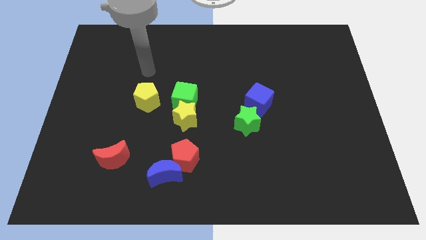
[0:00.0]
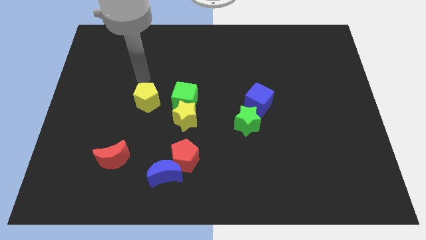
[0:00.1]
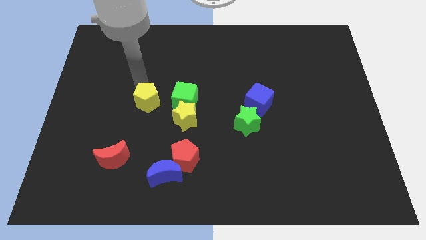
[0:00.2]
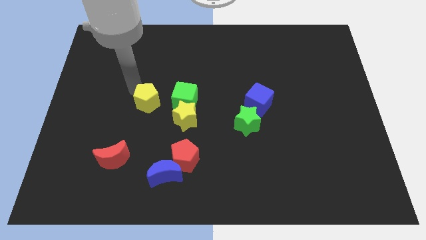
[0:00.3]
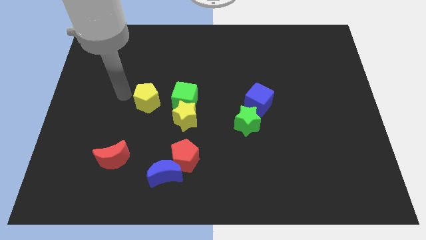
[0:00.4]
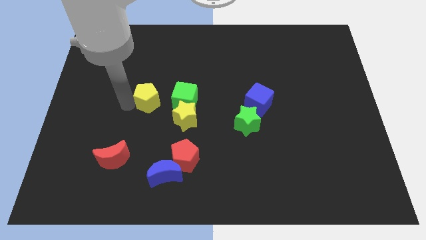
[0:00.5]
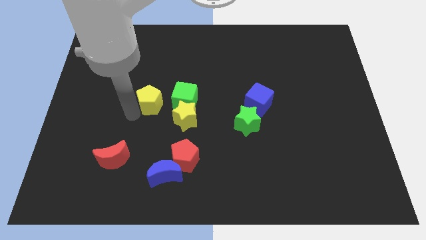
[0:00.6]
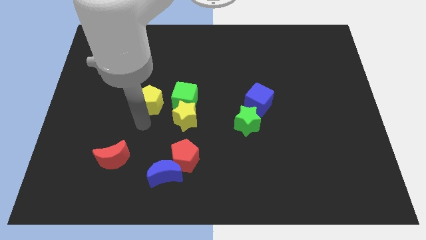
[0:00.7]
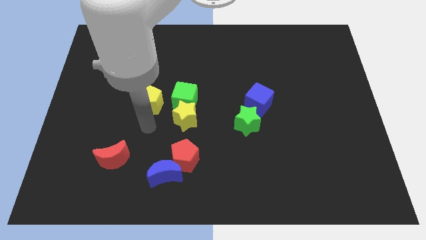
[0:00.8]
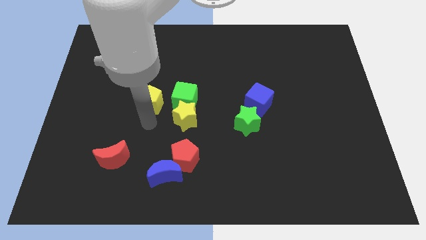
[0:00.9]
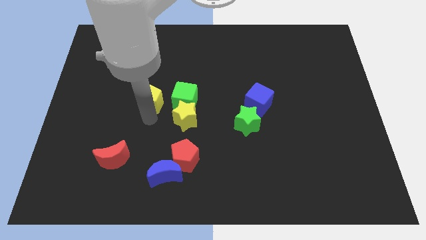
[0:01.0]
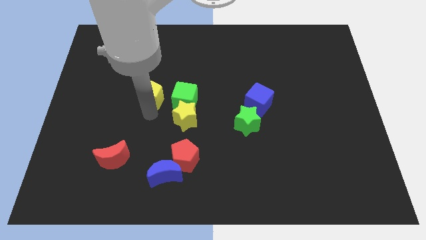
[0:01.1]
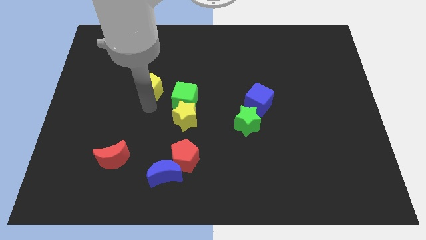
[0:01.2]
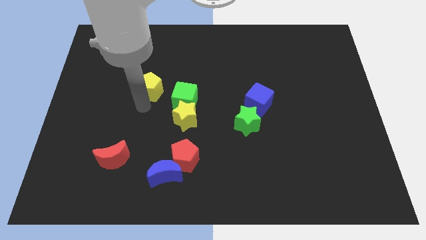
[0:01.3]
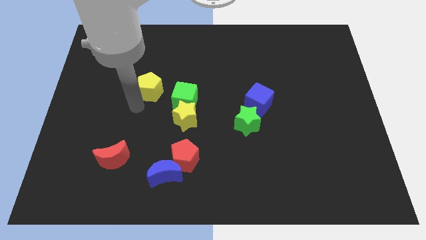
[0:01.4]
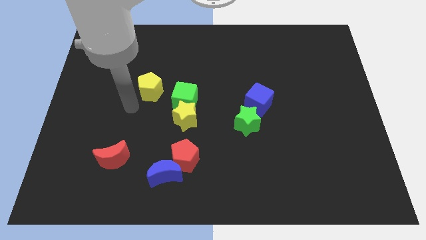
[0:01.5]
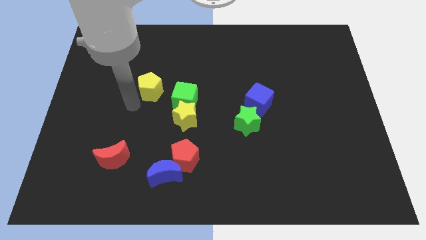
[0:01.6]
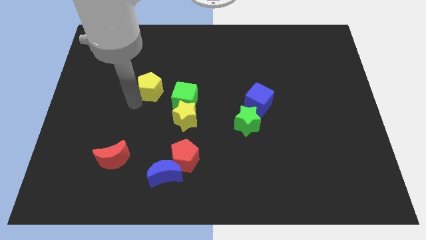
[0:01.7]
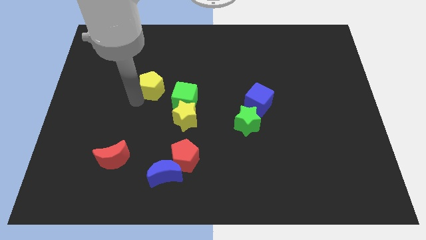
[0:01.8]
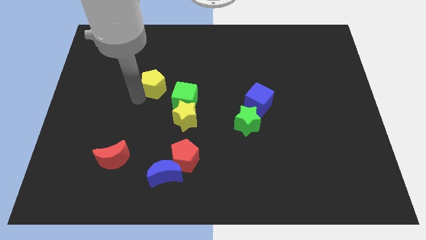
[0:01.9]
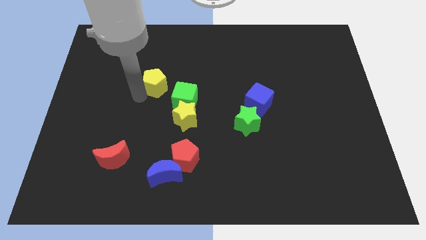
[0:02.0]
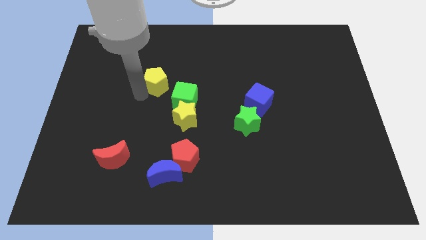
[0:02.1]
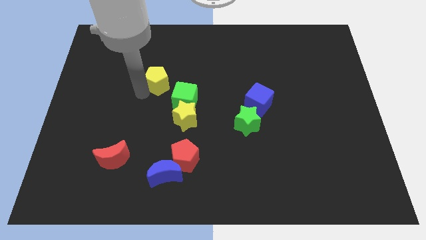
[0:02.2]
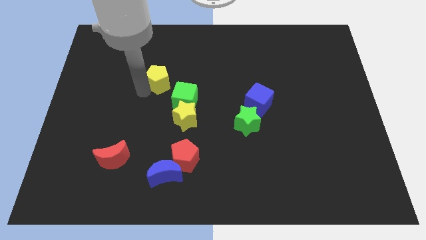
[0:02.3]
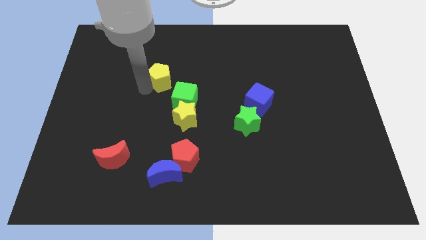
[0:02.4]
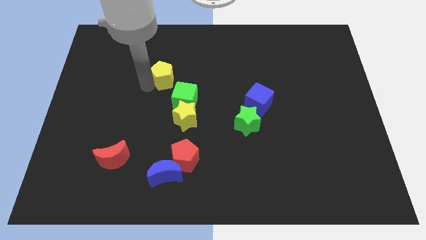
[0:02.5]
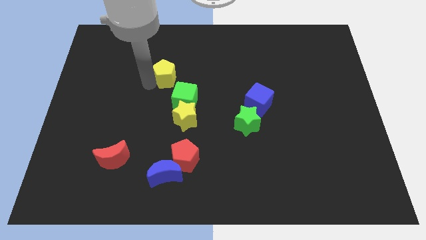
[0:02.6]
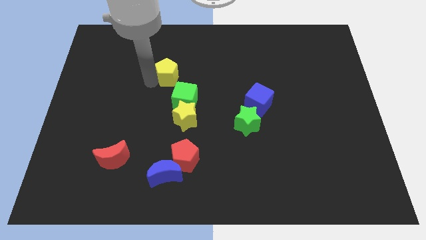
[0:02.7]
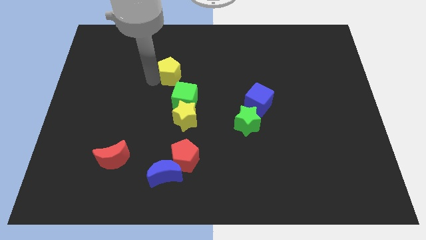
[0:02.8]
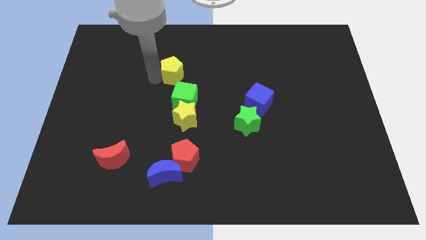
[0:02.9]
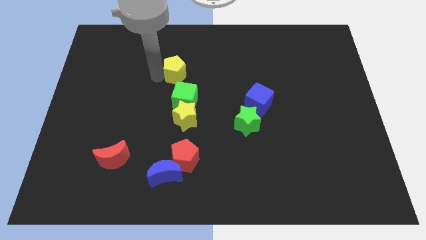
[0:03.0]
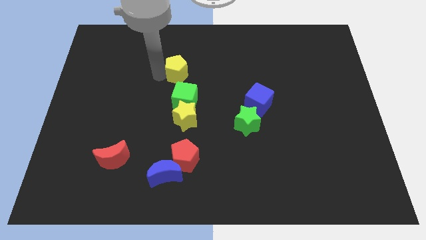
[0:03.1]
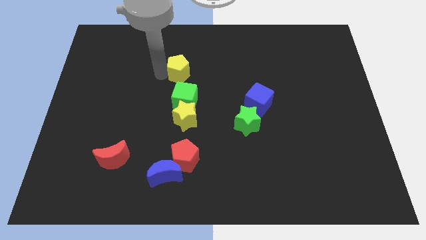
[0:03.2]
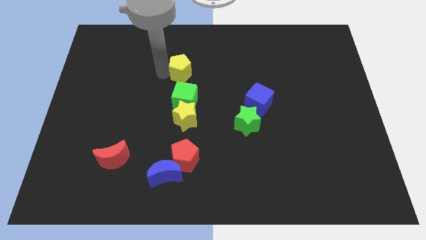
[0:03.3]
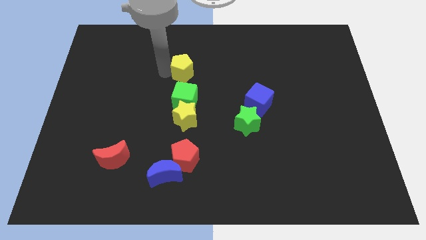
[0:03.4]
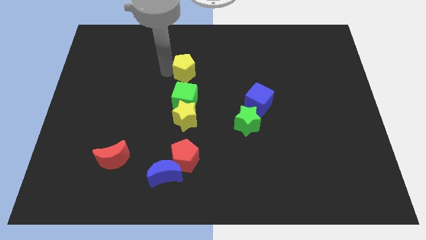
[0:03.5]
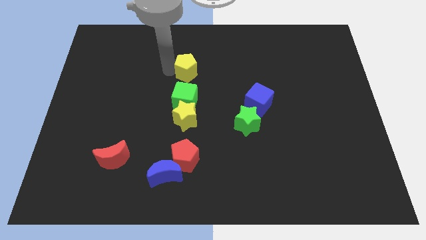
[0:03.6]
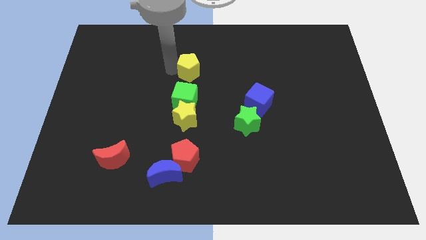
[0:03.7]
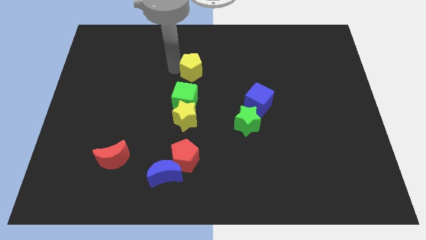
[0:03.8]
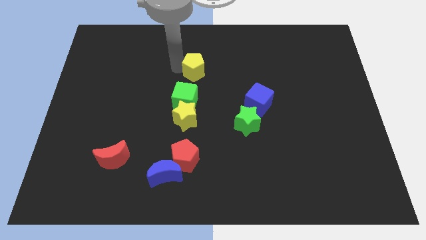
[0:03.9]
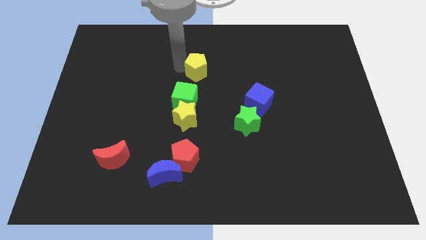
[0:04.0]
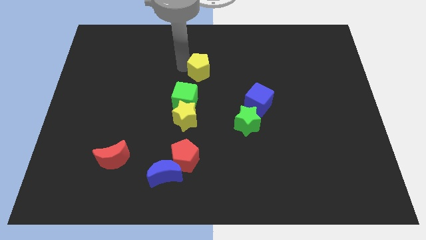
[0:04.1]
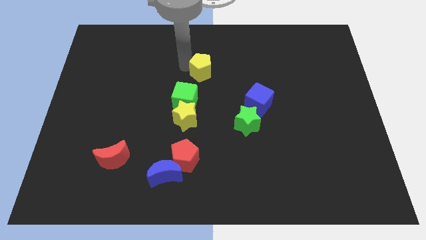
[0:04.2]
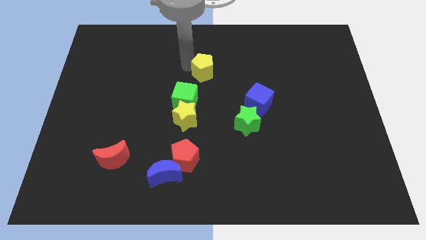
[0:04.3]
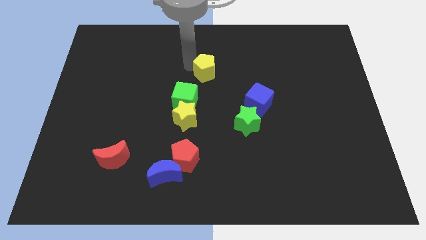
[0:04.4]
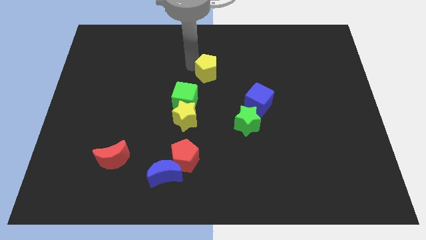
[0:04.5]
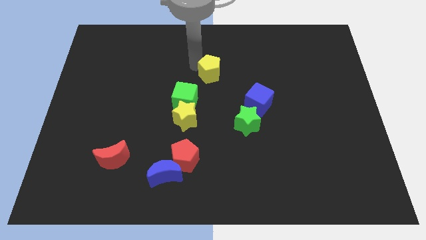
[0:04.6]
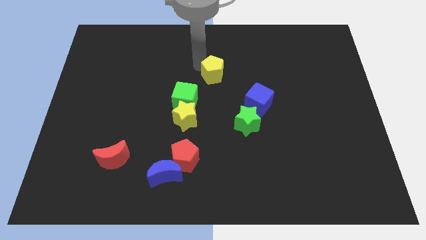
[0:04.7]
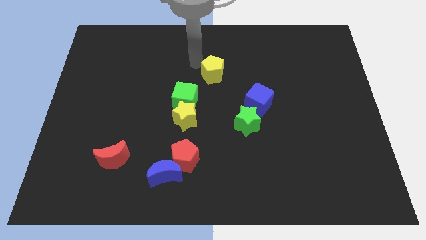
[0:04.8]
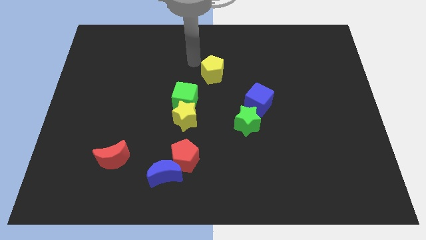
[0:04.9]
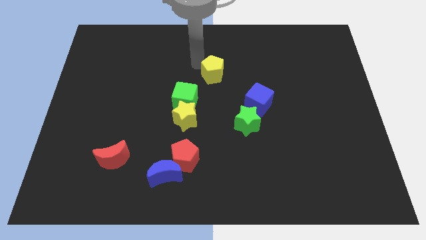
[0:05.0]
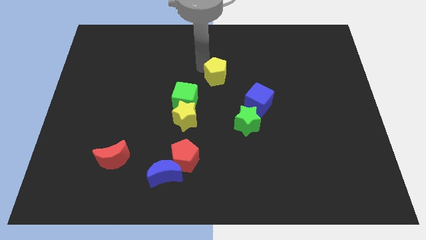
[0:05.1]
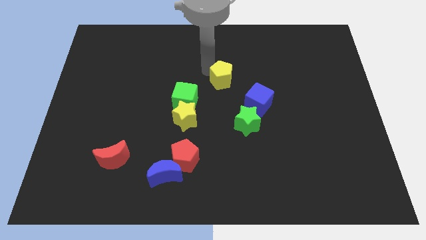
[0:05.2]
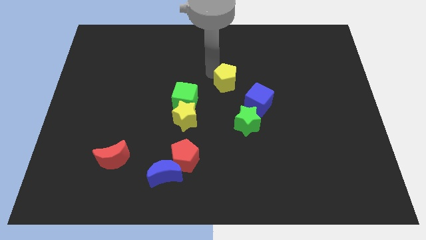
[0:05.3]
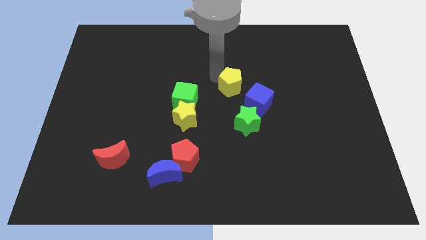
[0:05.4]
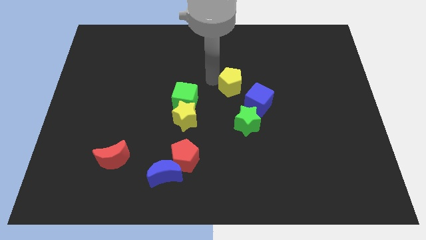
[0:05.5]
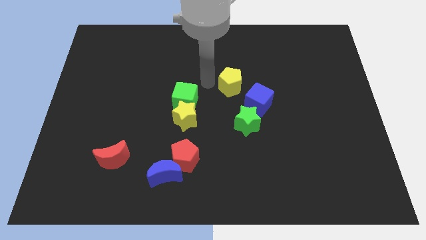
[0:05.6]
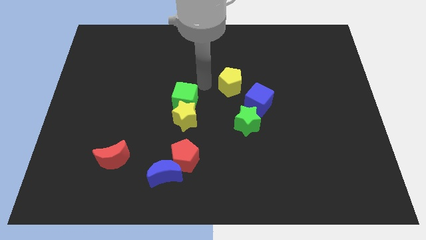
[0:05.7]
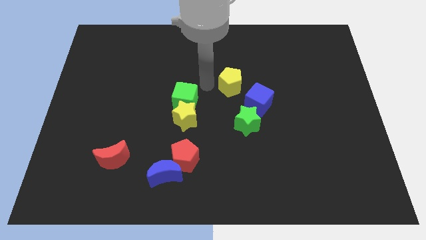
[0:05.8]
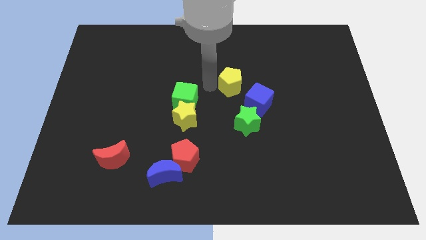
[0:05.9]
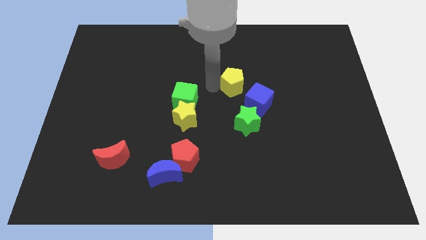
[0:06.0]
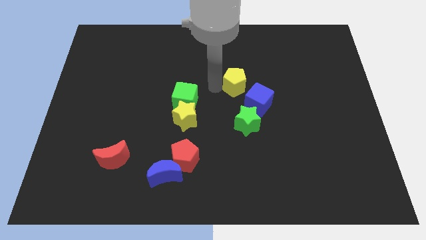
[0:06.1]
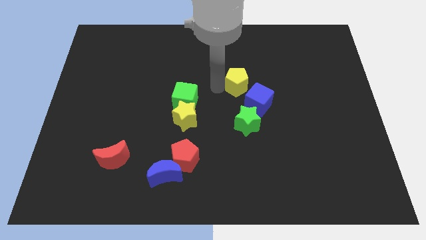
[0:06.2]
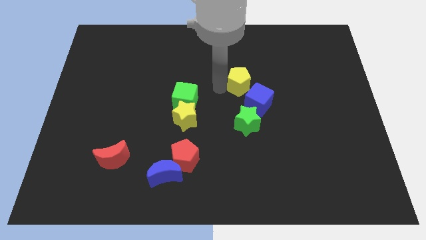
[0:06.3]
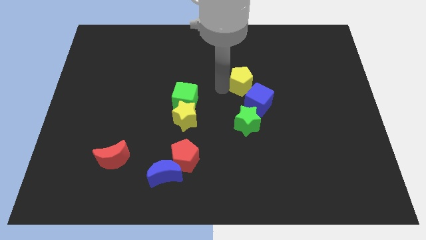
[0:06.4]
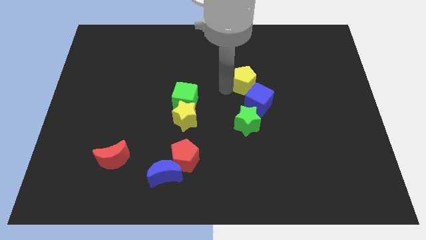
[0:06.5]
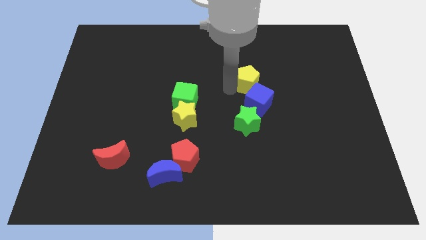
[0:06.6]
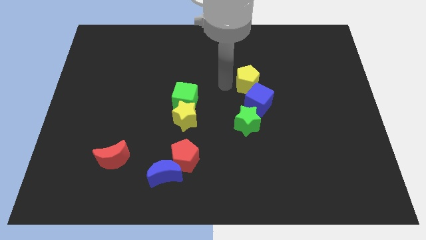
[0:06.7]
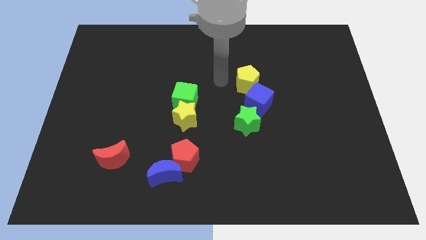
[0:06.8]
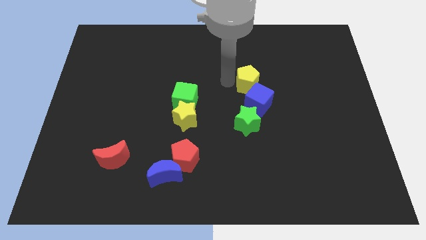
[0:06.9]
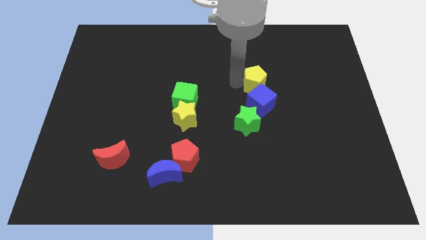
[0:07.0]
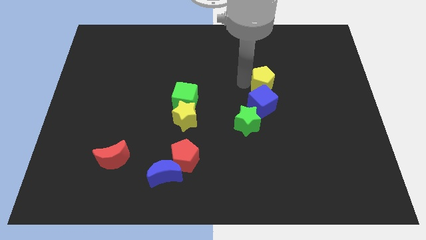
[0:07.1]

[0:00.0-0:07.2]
put the yellow pentagon to the top right of the blue cube
